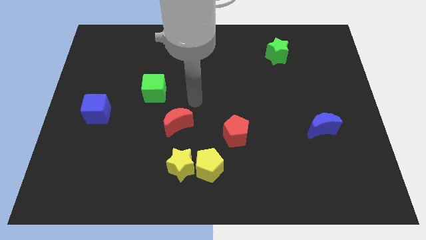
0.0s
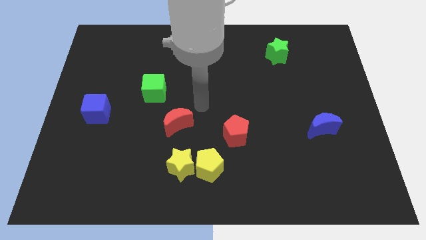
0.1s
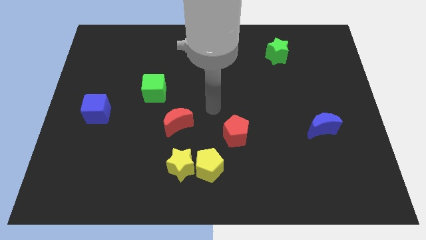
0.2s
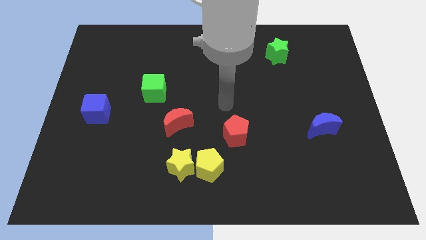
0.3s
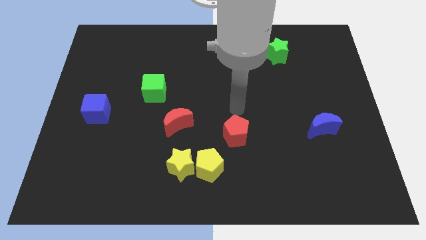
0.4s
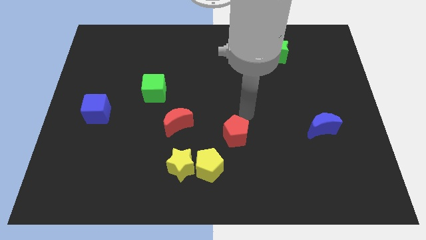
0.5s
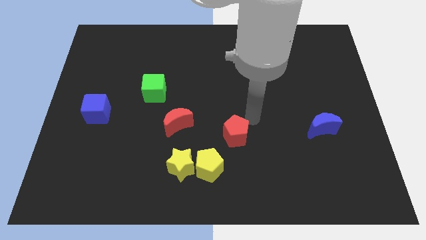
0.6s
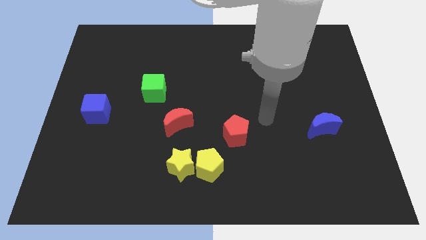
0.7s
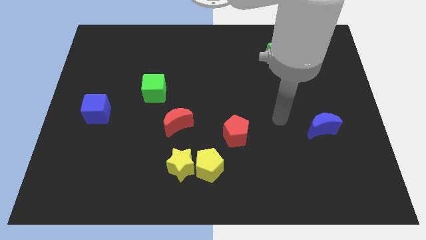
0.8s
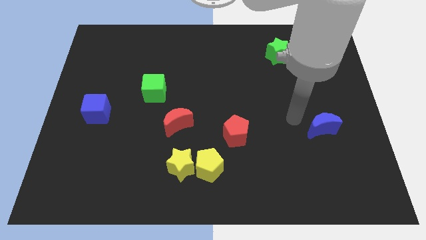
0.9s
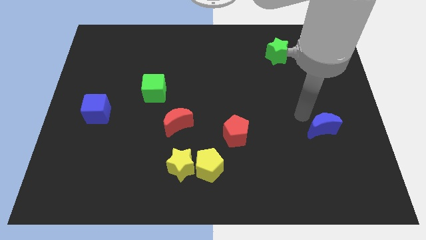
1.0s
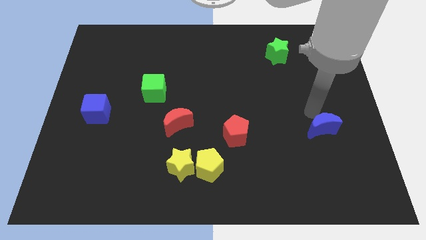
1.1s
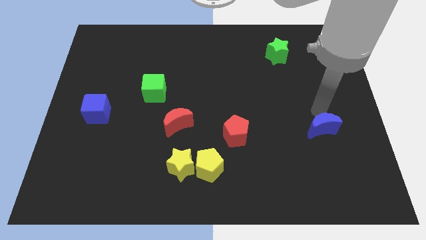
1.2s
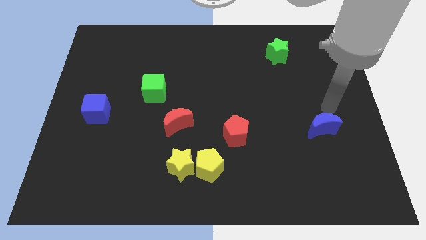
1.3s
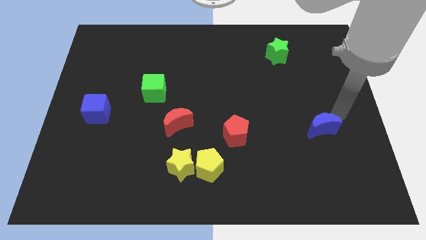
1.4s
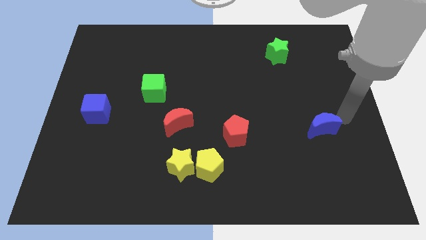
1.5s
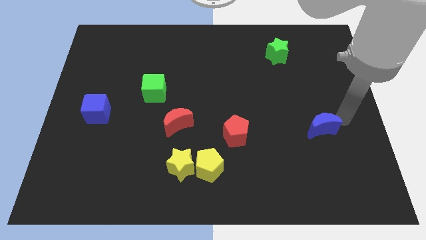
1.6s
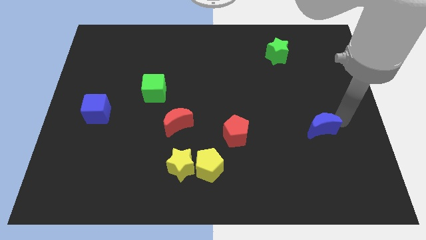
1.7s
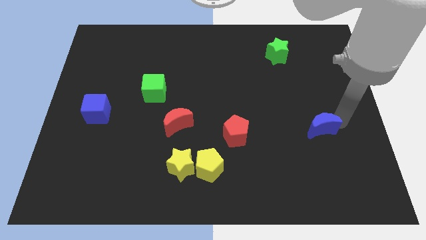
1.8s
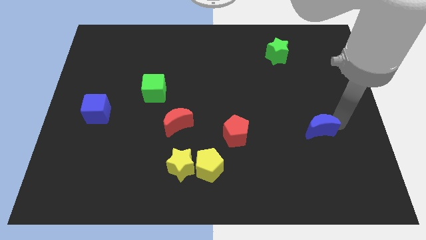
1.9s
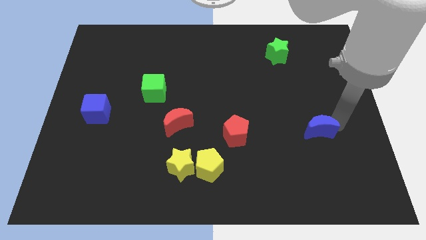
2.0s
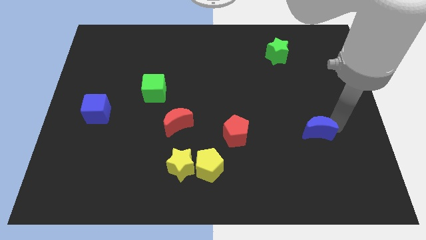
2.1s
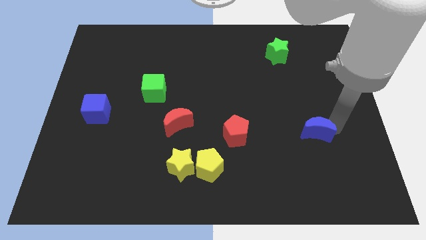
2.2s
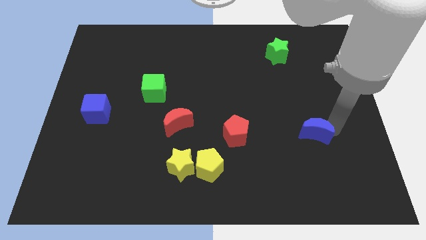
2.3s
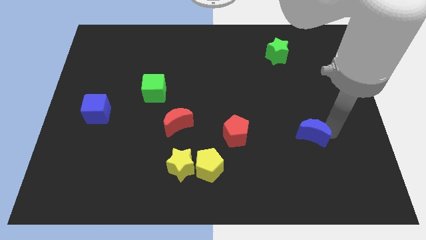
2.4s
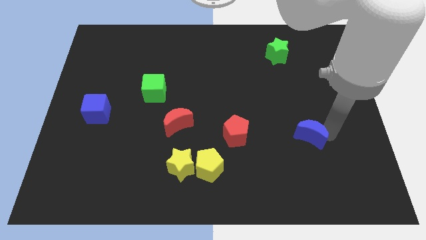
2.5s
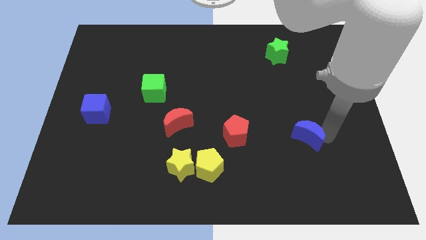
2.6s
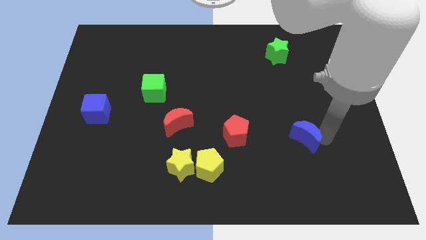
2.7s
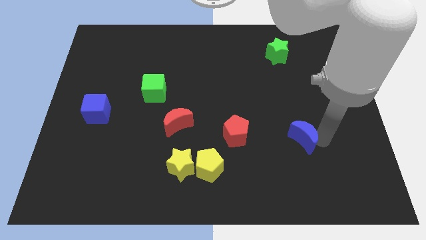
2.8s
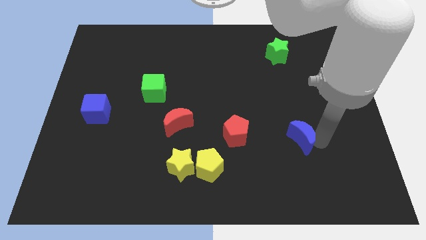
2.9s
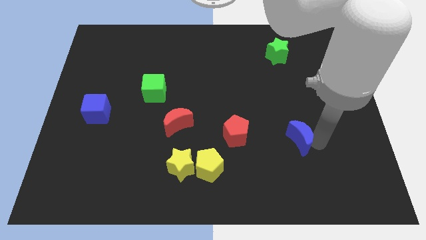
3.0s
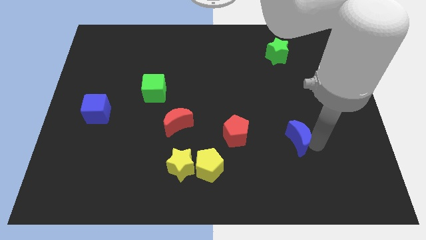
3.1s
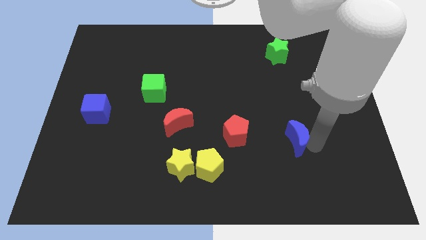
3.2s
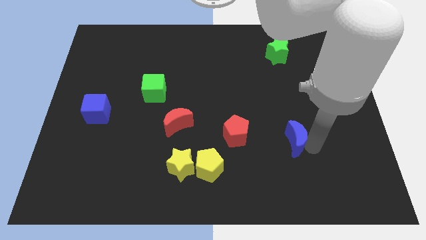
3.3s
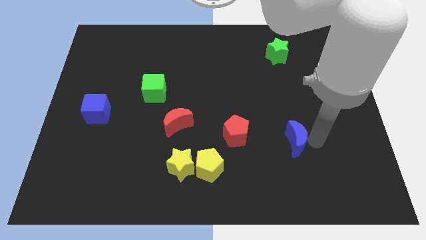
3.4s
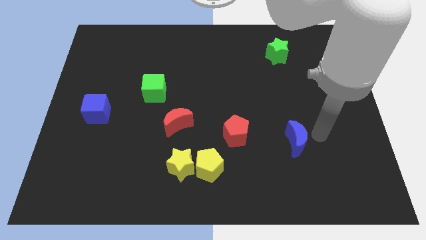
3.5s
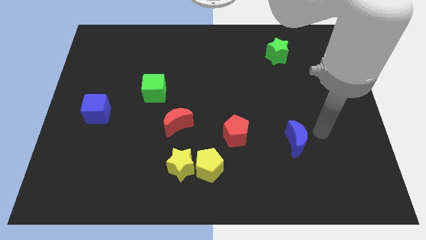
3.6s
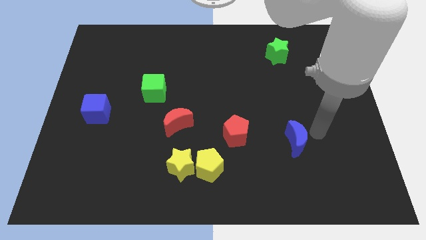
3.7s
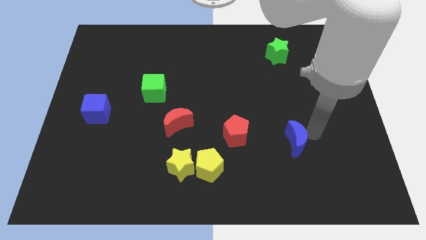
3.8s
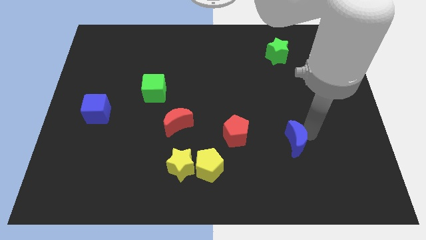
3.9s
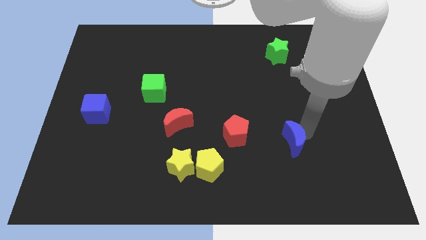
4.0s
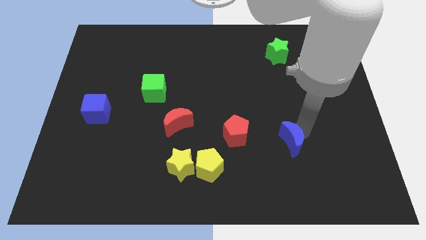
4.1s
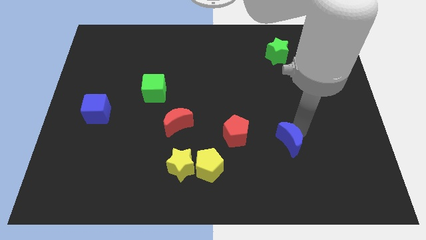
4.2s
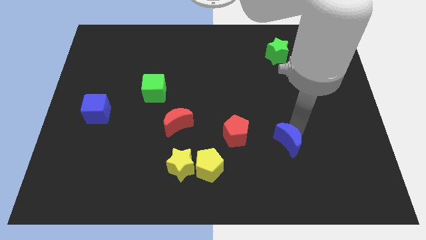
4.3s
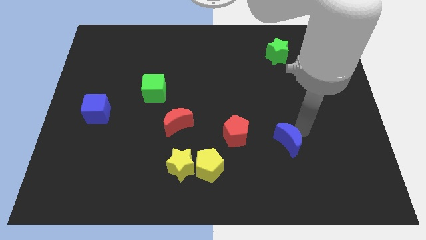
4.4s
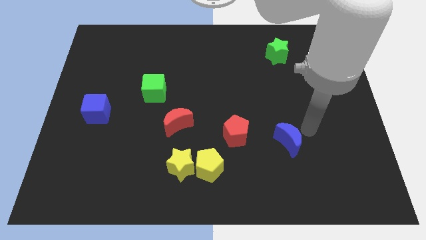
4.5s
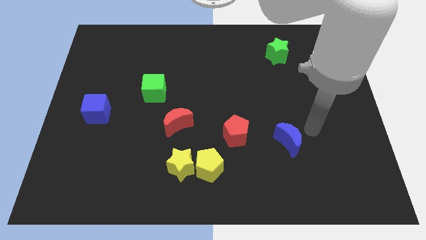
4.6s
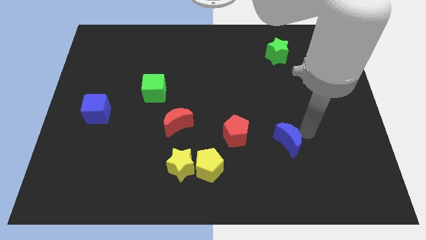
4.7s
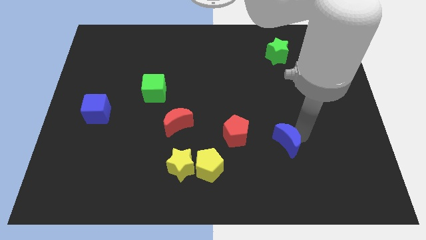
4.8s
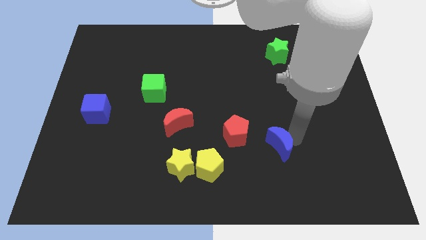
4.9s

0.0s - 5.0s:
push the blue moon diagonally down and to the right of the red pentagon

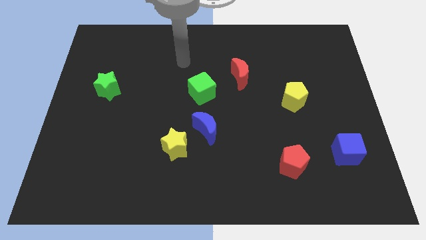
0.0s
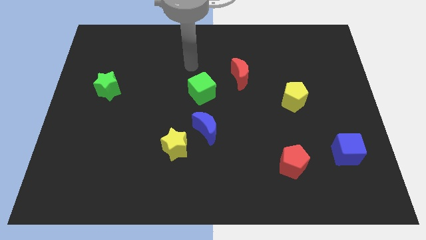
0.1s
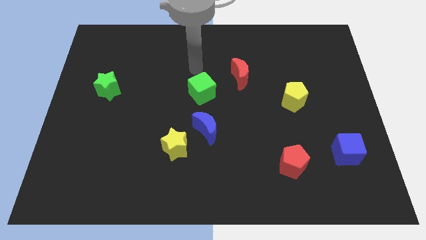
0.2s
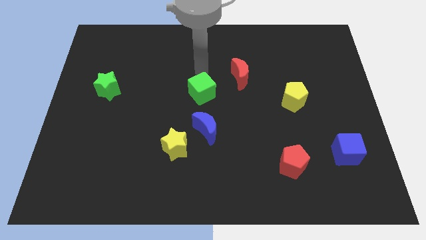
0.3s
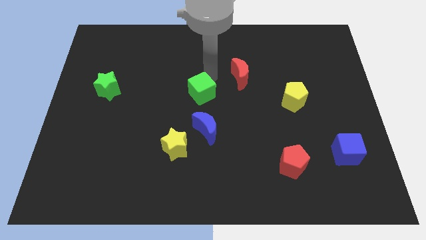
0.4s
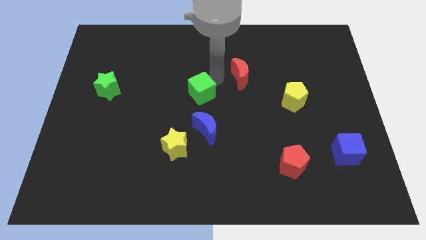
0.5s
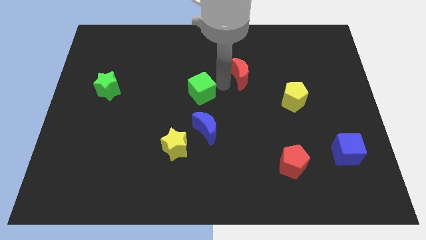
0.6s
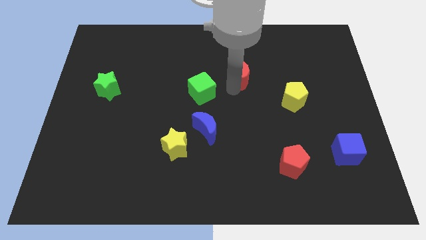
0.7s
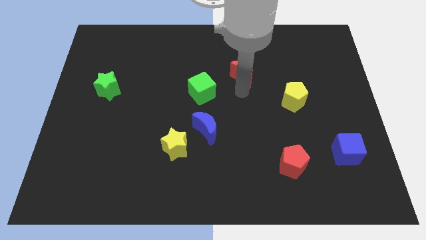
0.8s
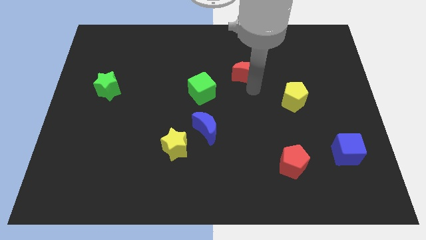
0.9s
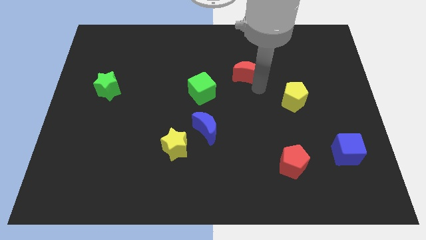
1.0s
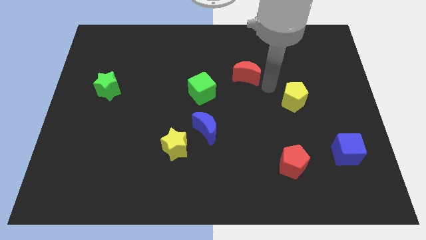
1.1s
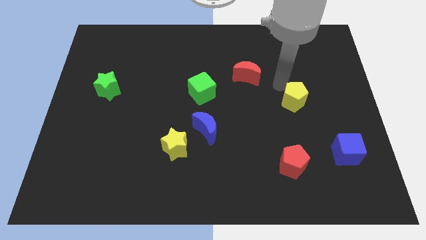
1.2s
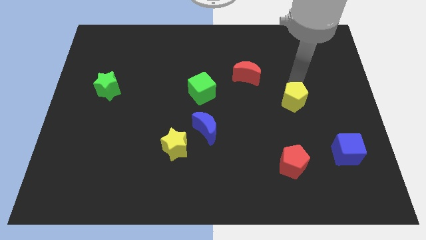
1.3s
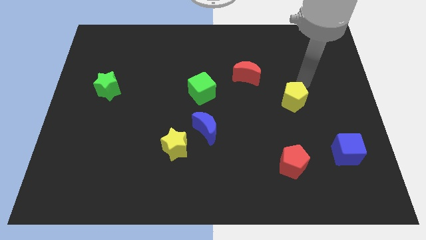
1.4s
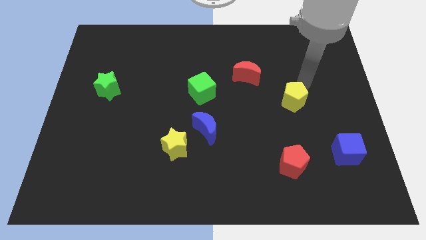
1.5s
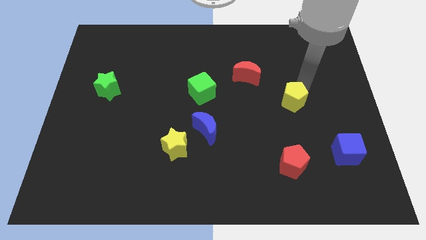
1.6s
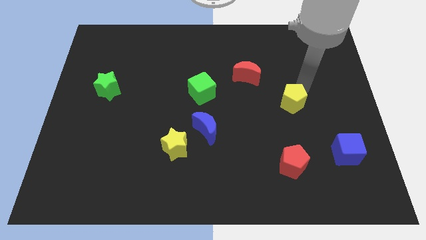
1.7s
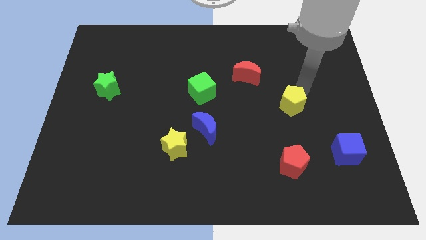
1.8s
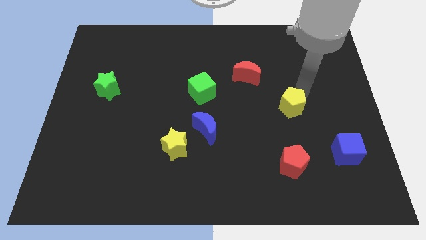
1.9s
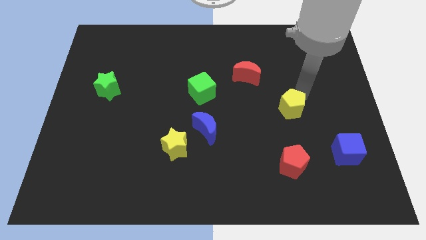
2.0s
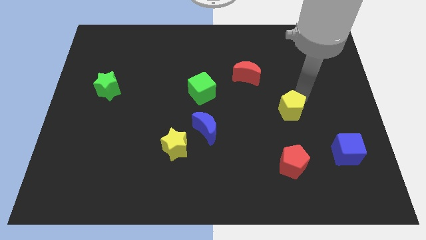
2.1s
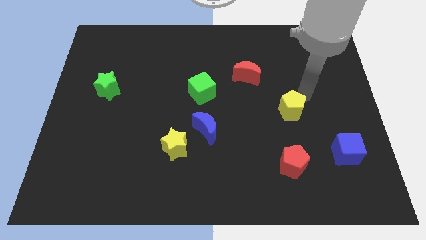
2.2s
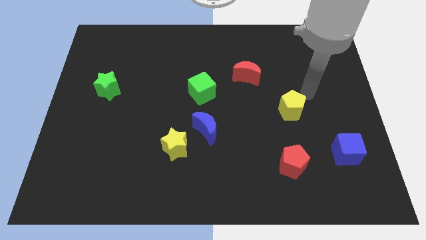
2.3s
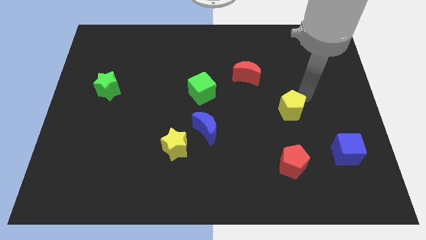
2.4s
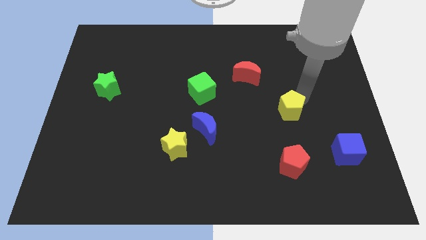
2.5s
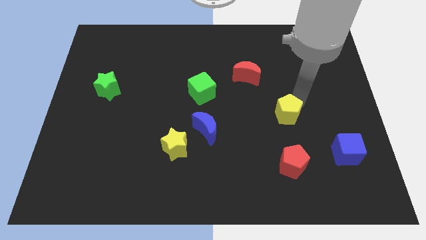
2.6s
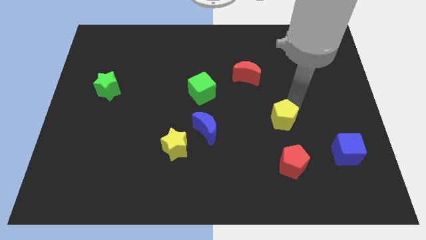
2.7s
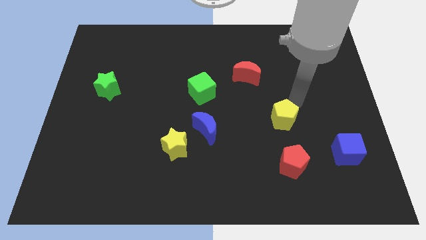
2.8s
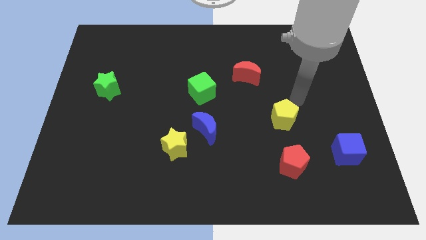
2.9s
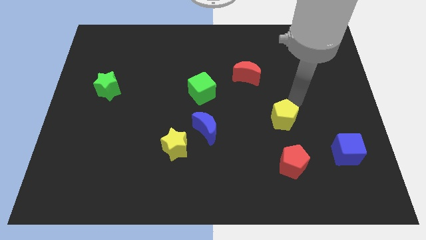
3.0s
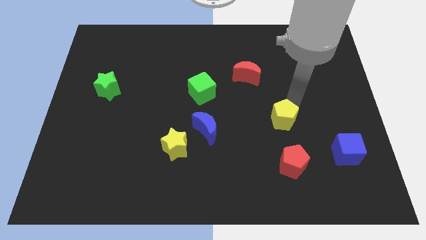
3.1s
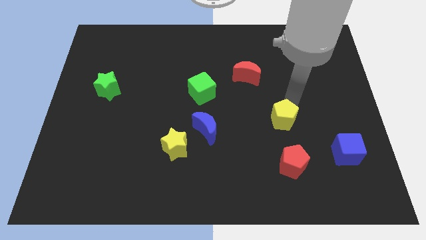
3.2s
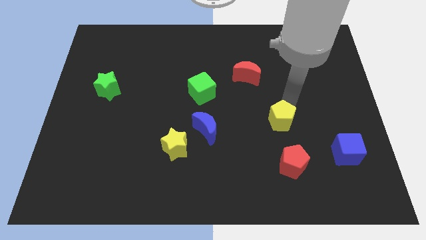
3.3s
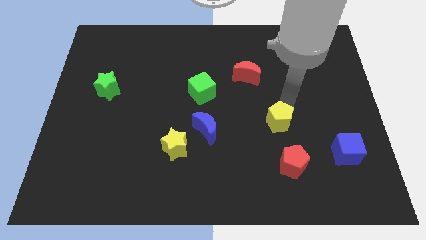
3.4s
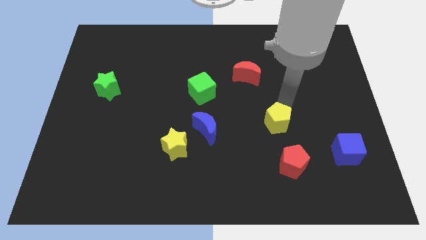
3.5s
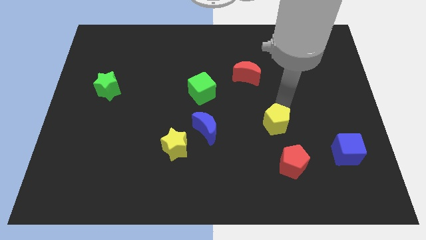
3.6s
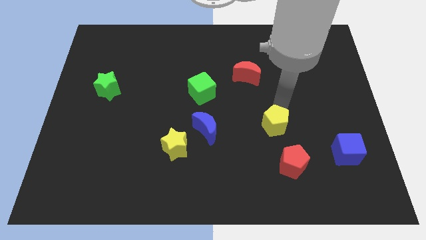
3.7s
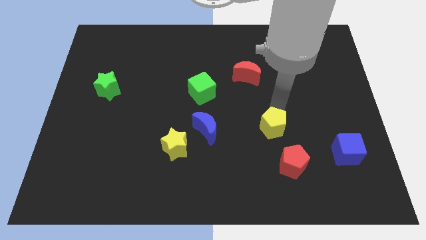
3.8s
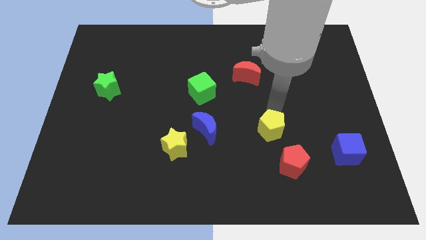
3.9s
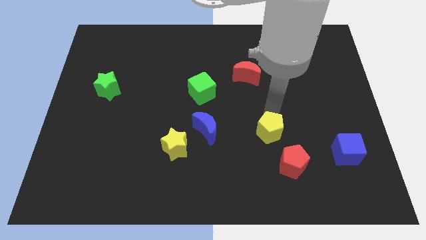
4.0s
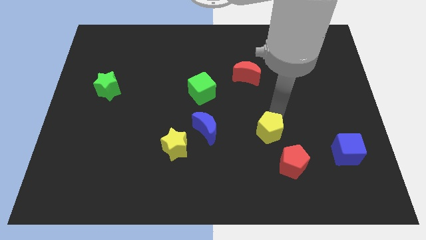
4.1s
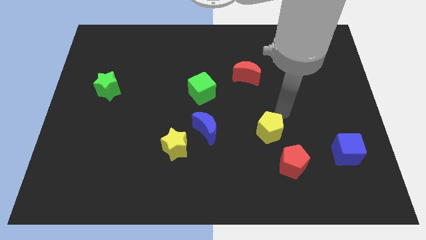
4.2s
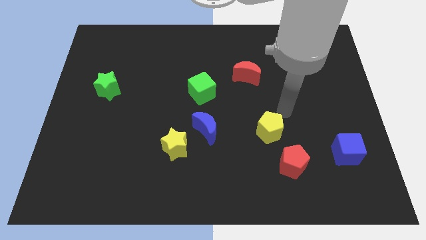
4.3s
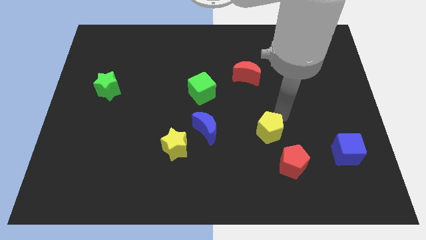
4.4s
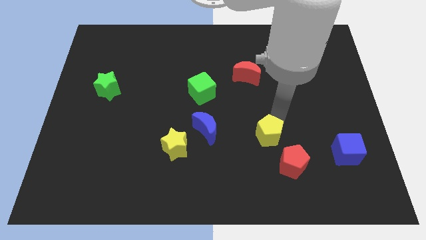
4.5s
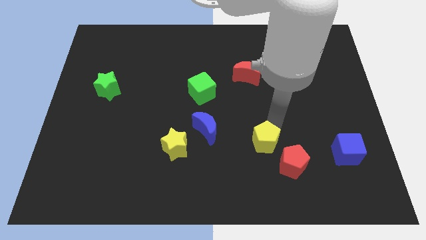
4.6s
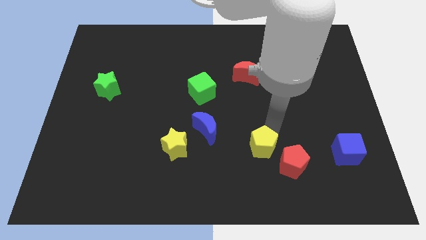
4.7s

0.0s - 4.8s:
put the yellow pentagon to the left of the red pentagon
